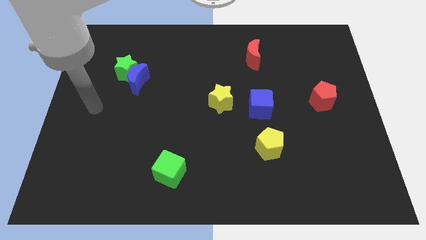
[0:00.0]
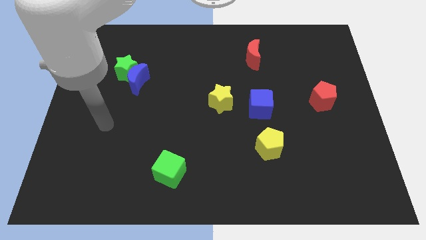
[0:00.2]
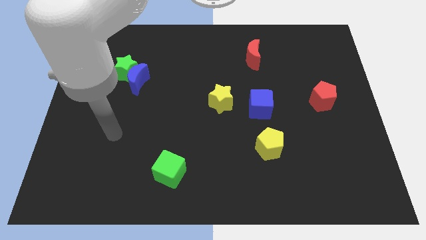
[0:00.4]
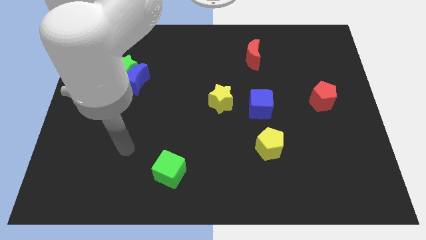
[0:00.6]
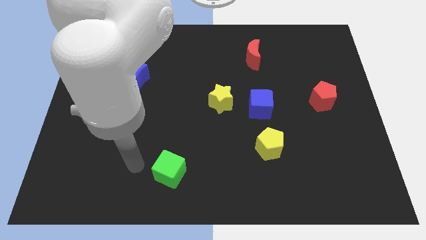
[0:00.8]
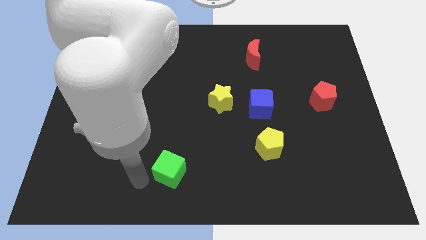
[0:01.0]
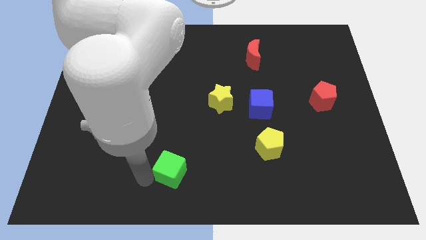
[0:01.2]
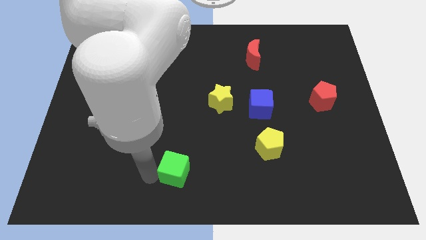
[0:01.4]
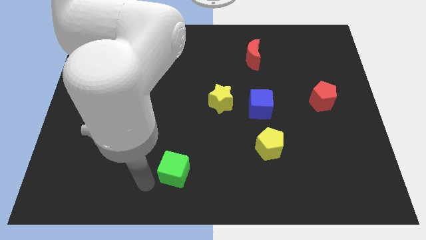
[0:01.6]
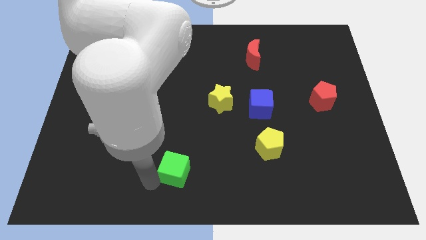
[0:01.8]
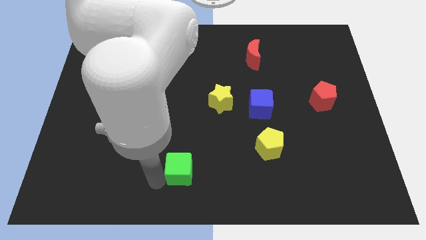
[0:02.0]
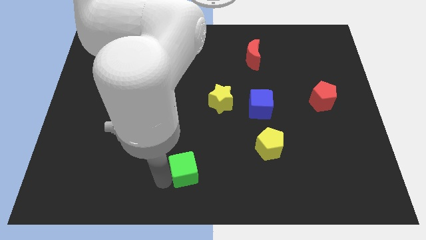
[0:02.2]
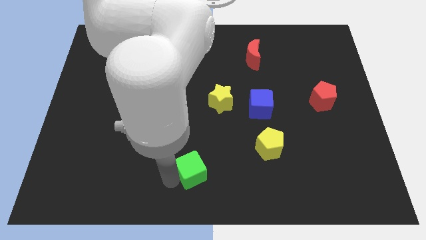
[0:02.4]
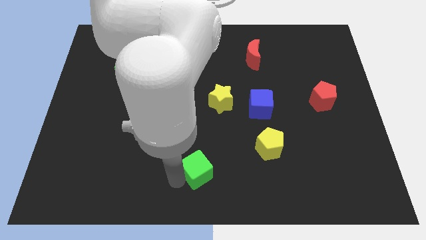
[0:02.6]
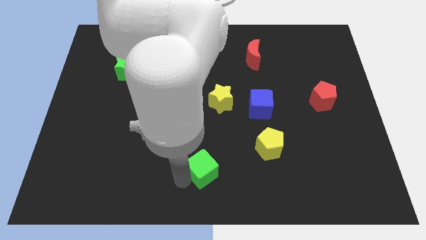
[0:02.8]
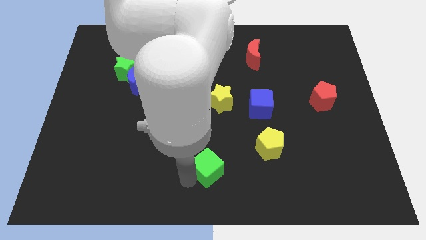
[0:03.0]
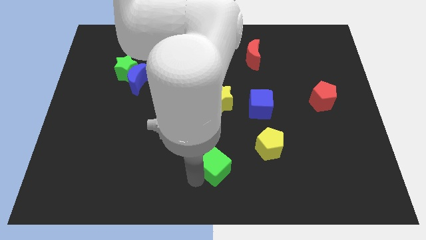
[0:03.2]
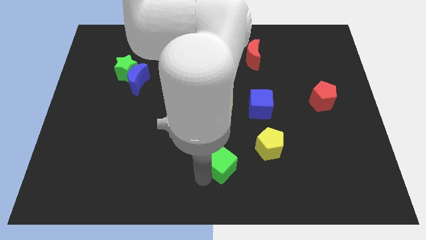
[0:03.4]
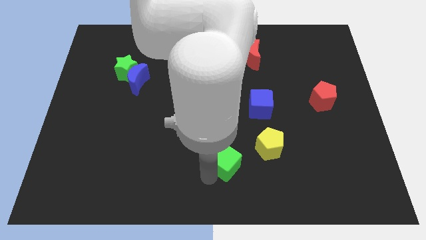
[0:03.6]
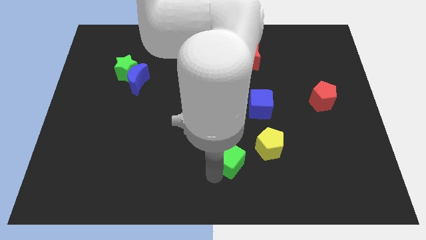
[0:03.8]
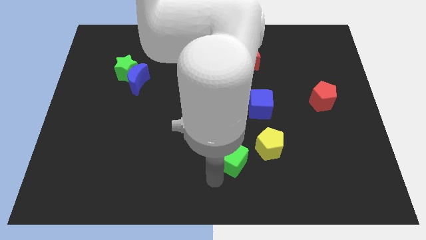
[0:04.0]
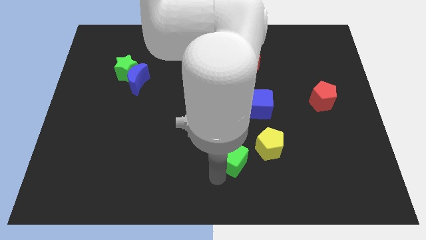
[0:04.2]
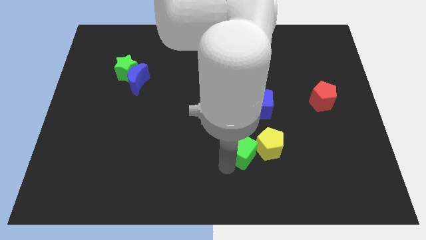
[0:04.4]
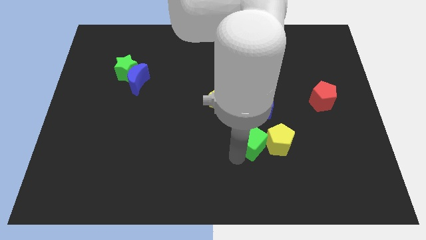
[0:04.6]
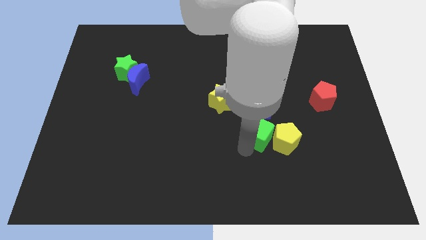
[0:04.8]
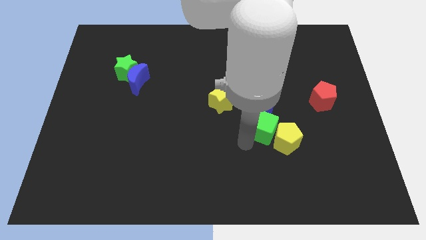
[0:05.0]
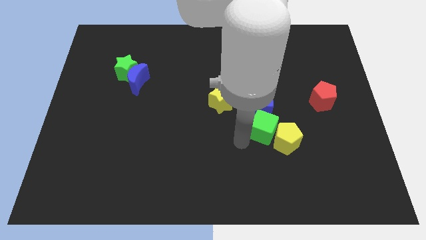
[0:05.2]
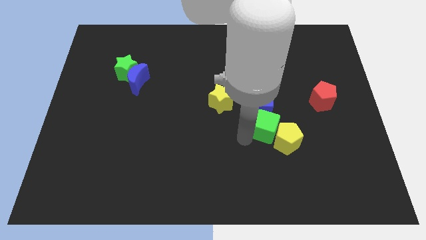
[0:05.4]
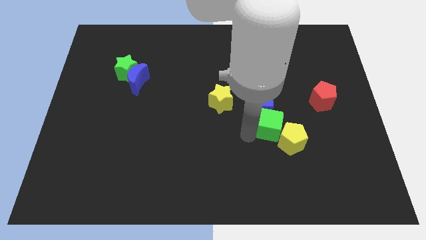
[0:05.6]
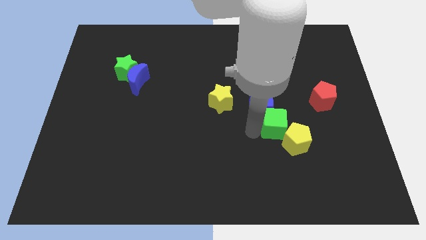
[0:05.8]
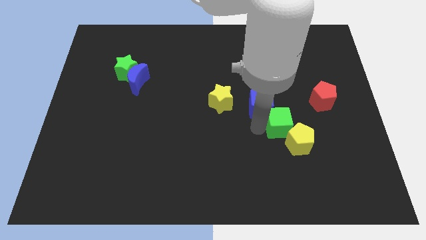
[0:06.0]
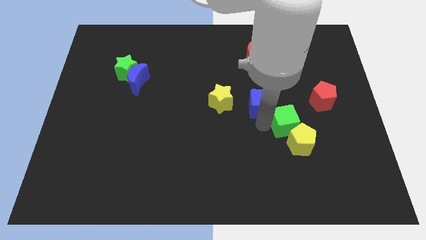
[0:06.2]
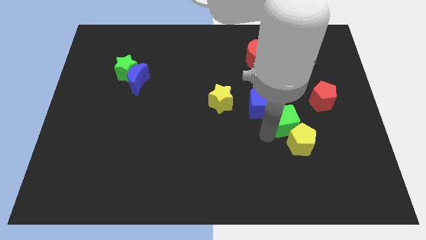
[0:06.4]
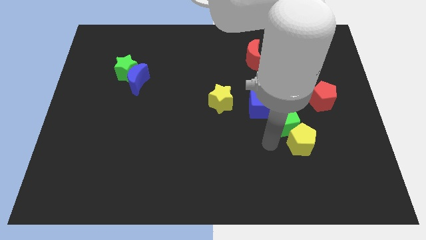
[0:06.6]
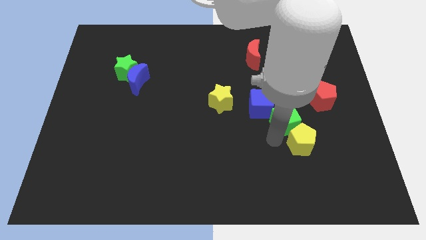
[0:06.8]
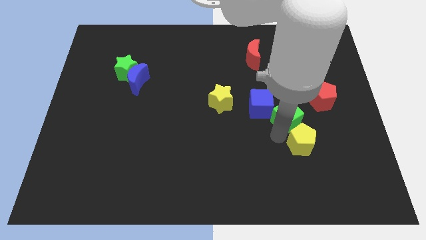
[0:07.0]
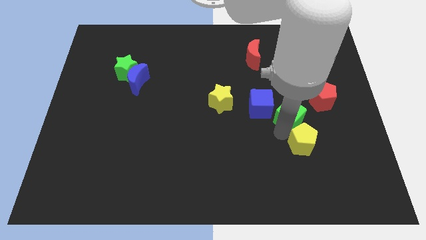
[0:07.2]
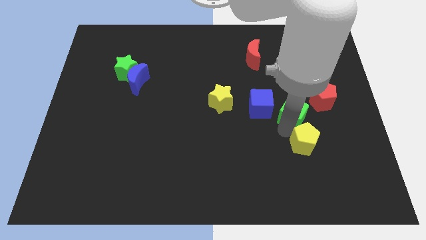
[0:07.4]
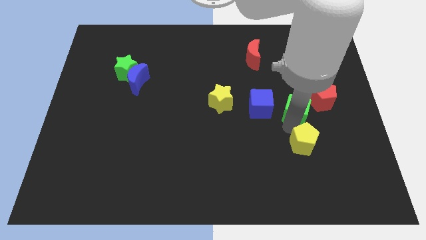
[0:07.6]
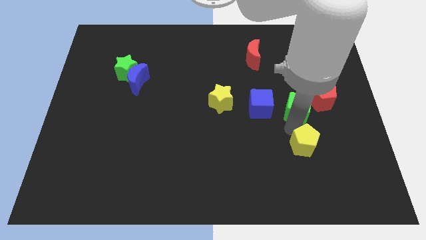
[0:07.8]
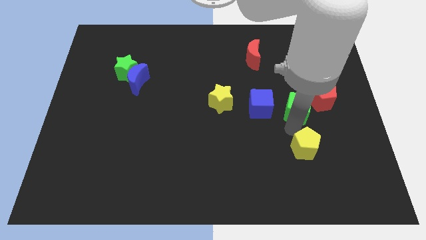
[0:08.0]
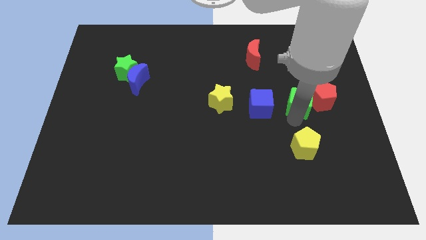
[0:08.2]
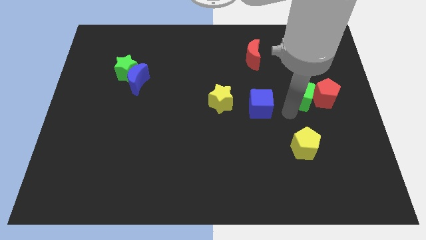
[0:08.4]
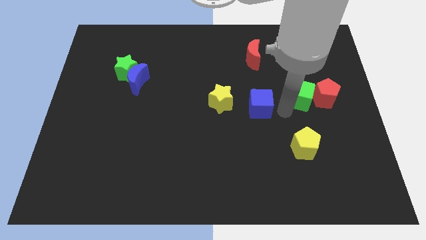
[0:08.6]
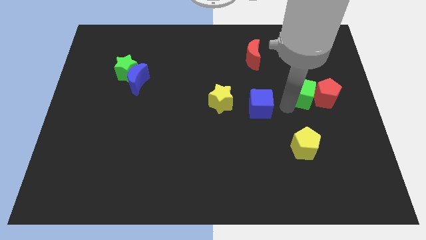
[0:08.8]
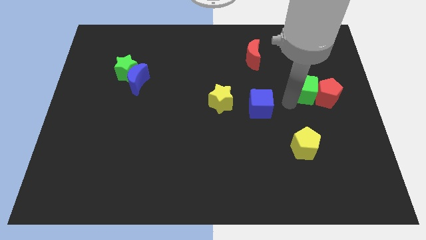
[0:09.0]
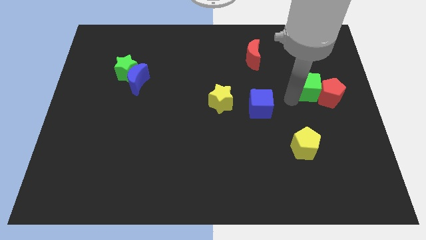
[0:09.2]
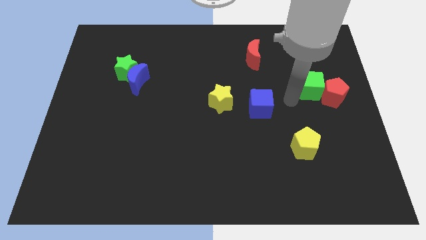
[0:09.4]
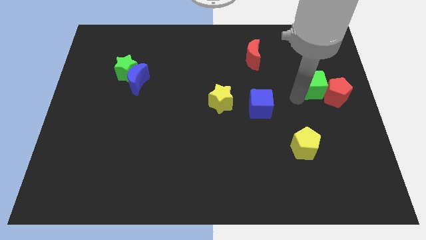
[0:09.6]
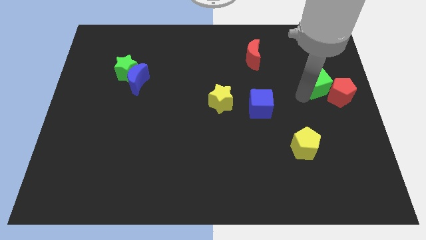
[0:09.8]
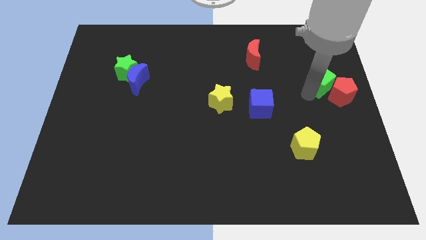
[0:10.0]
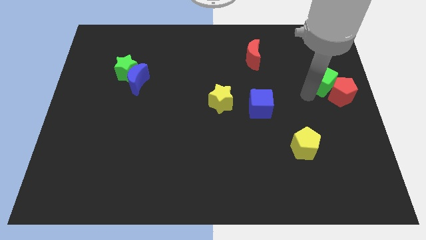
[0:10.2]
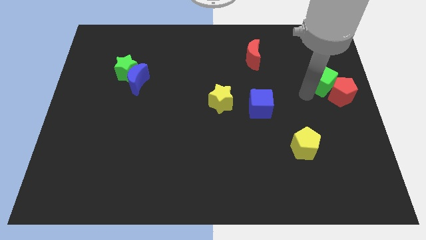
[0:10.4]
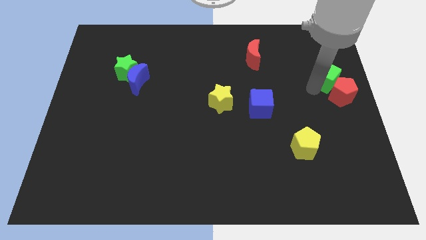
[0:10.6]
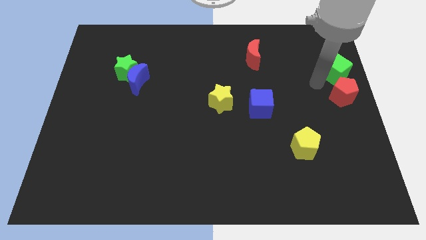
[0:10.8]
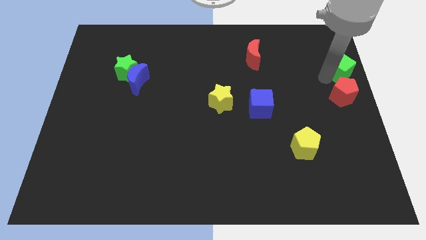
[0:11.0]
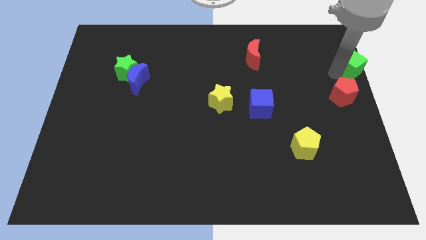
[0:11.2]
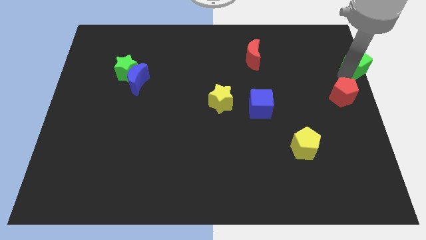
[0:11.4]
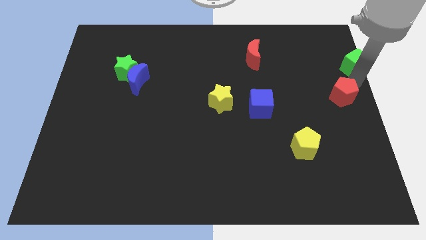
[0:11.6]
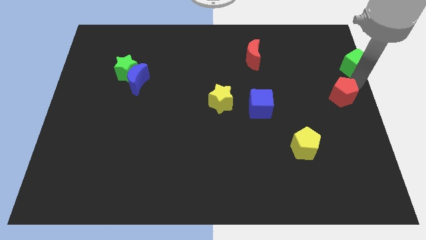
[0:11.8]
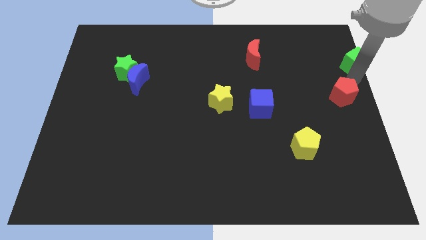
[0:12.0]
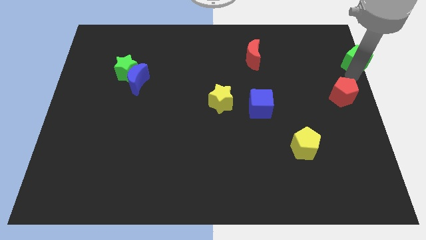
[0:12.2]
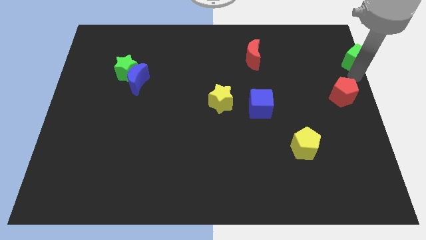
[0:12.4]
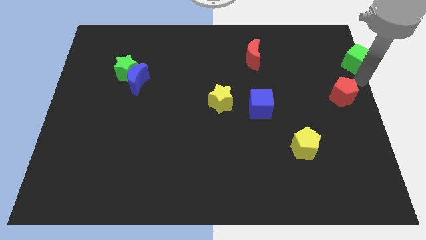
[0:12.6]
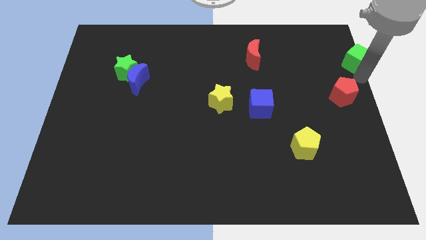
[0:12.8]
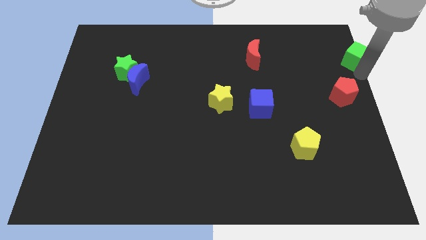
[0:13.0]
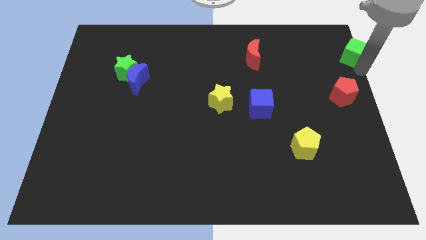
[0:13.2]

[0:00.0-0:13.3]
slide the green cube to the top right
